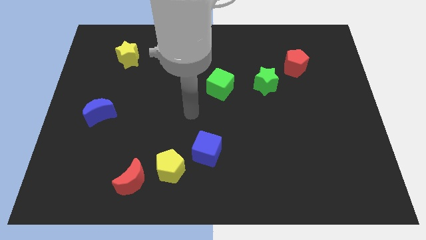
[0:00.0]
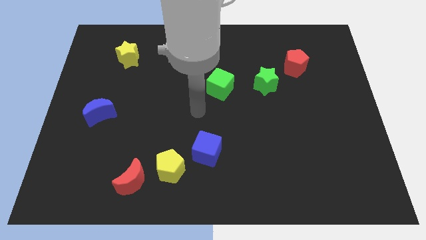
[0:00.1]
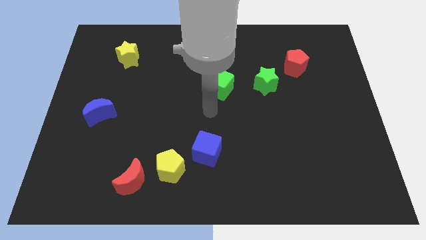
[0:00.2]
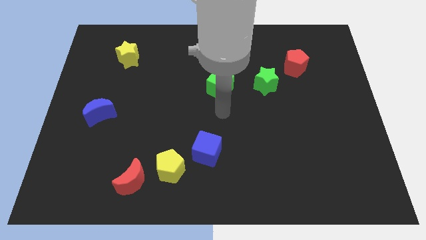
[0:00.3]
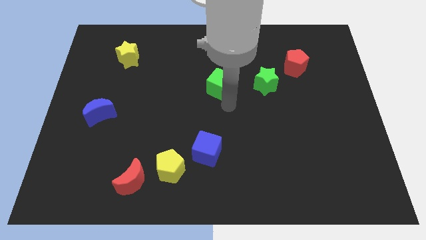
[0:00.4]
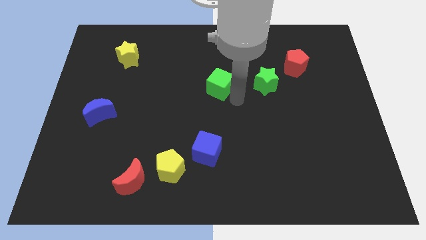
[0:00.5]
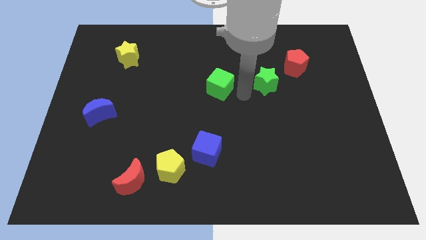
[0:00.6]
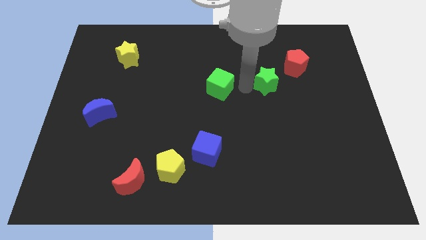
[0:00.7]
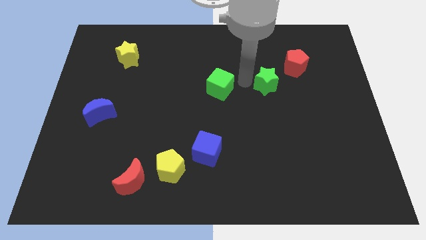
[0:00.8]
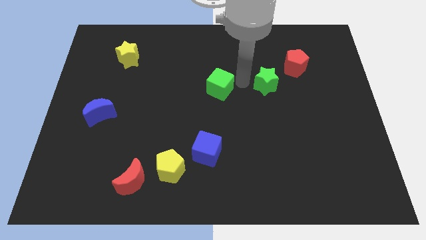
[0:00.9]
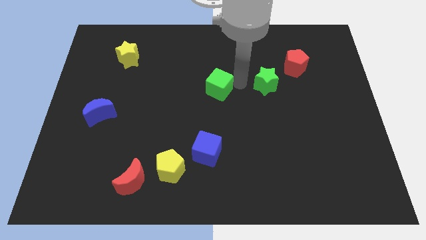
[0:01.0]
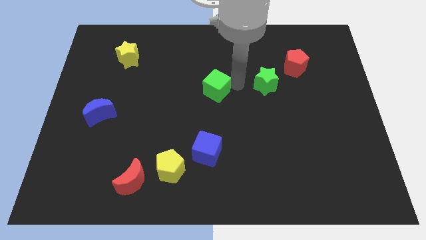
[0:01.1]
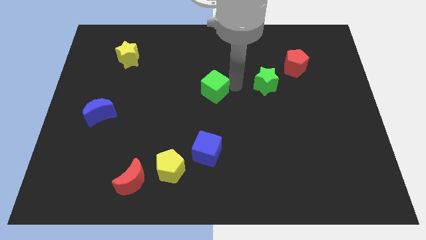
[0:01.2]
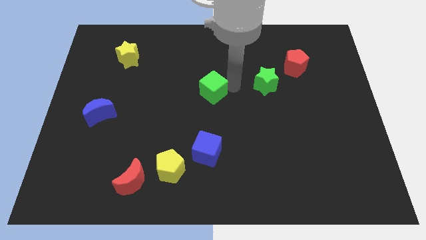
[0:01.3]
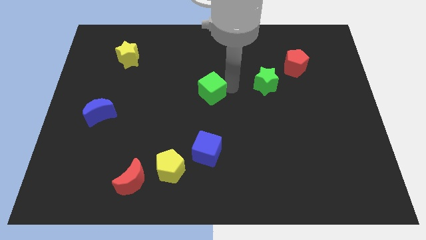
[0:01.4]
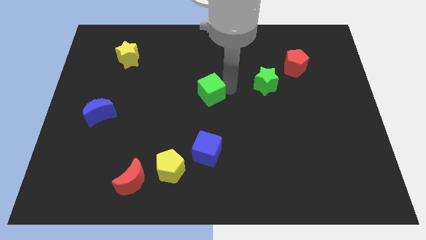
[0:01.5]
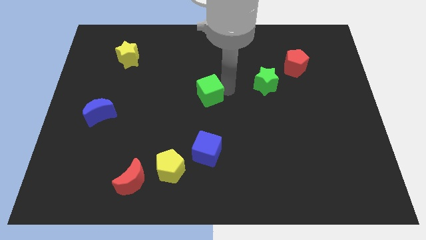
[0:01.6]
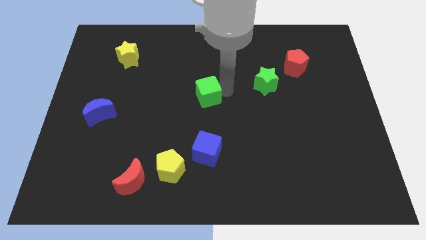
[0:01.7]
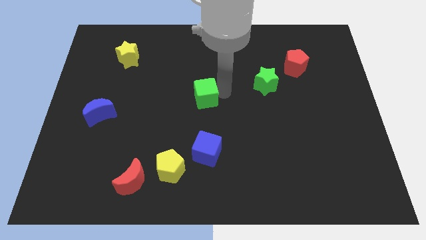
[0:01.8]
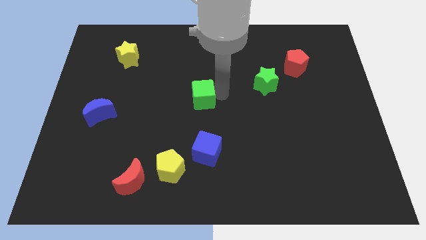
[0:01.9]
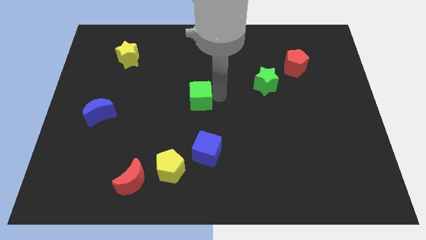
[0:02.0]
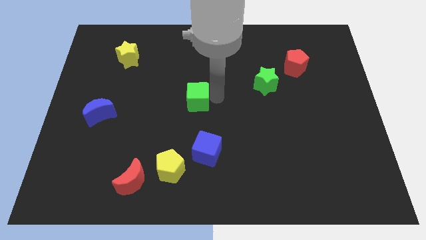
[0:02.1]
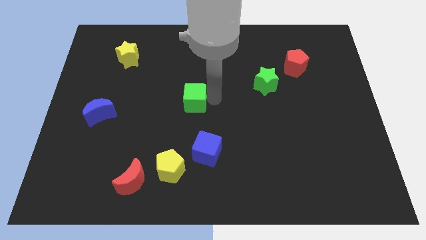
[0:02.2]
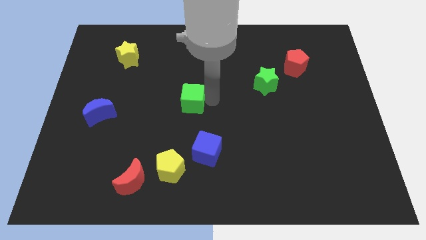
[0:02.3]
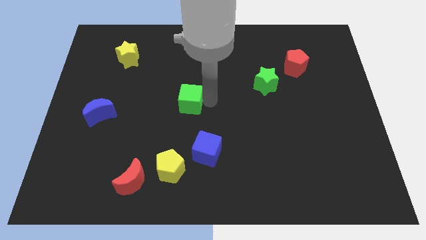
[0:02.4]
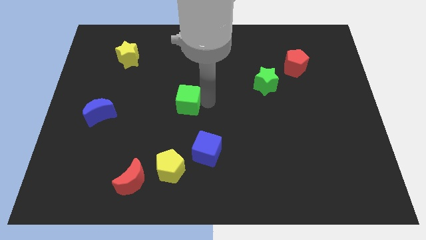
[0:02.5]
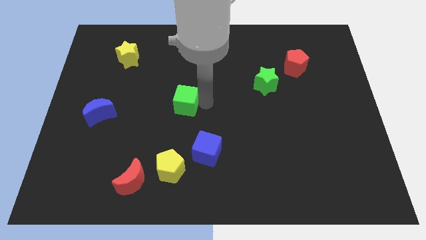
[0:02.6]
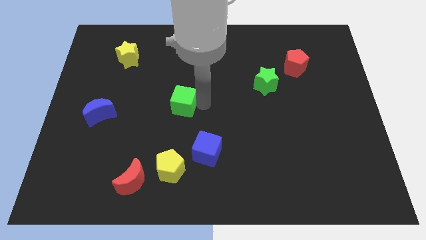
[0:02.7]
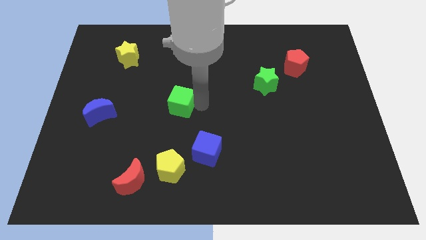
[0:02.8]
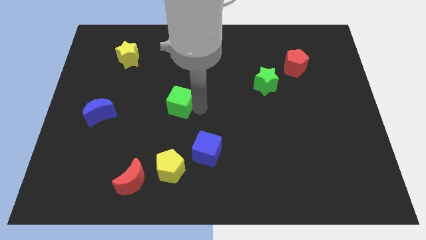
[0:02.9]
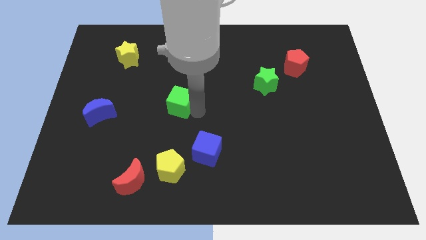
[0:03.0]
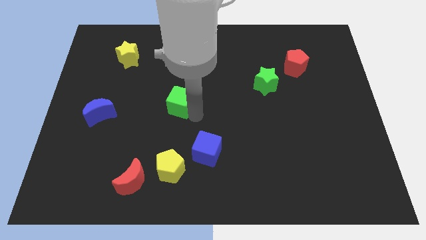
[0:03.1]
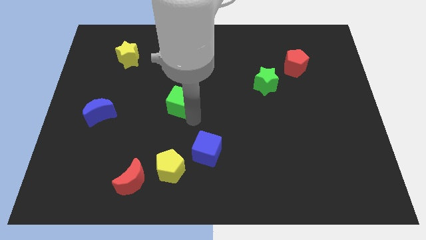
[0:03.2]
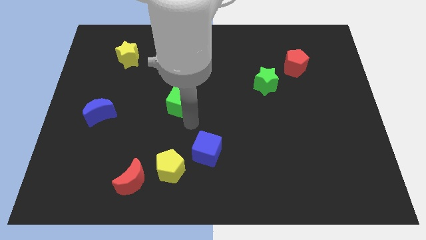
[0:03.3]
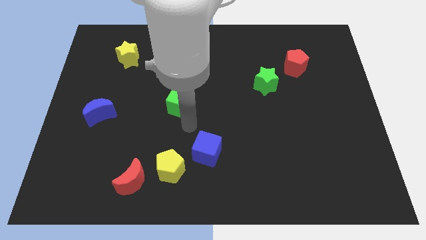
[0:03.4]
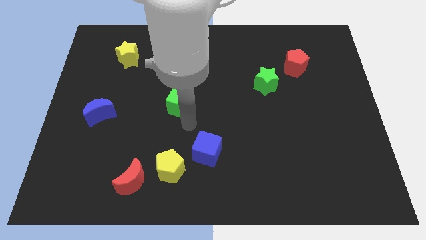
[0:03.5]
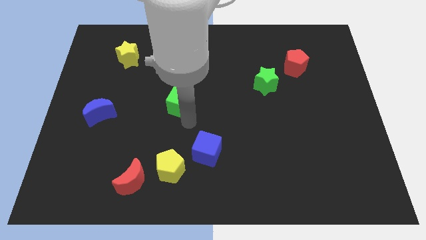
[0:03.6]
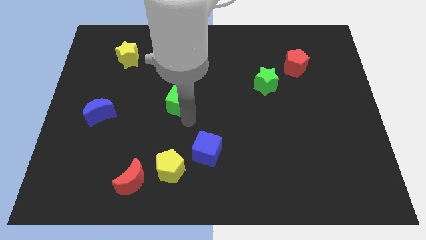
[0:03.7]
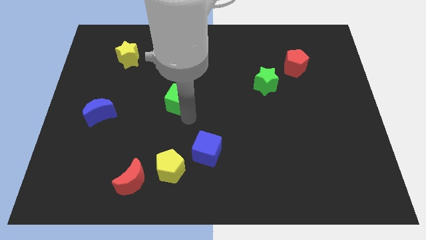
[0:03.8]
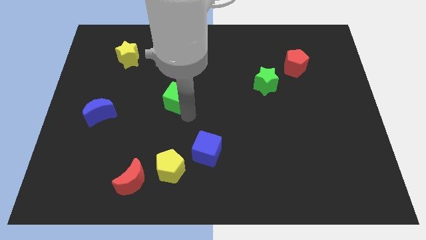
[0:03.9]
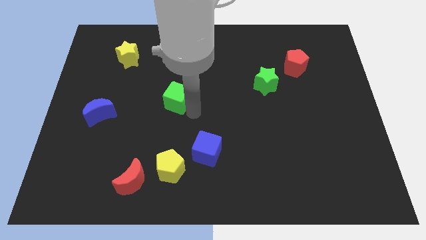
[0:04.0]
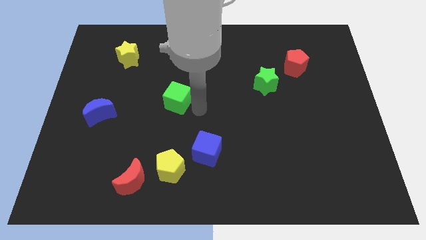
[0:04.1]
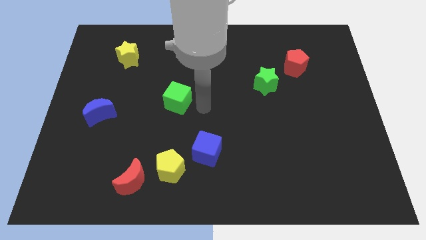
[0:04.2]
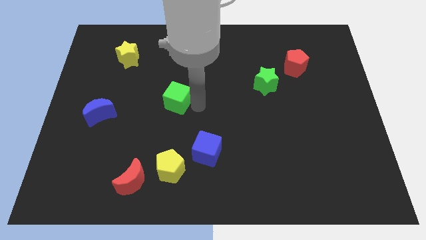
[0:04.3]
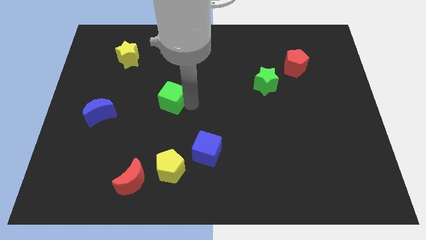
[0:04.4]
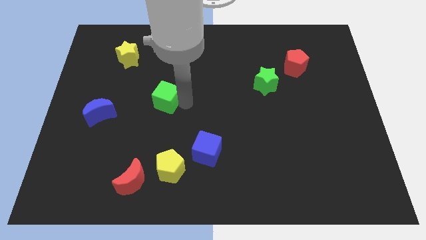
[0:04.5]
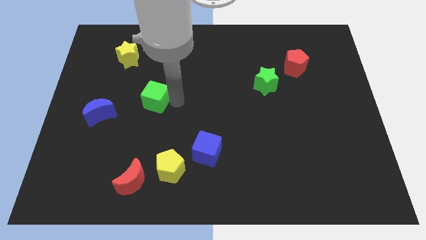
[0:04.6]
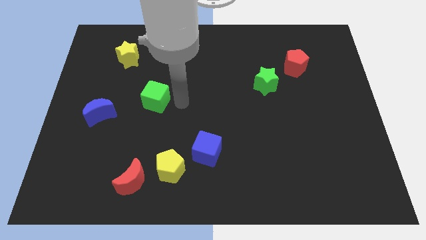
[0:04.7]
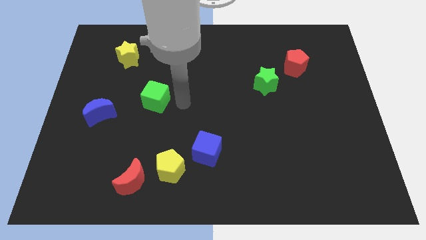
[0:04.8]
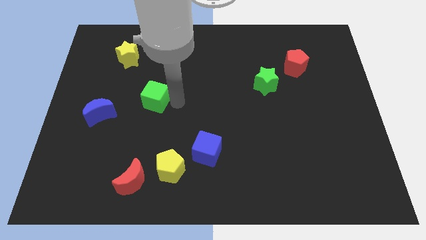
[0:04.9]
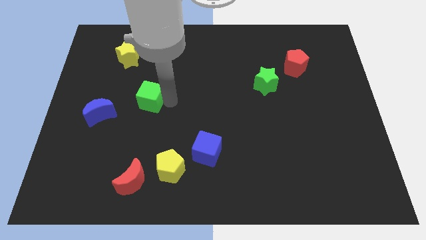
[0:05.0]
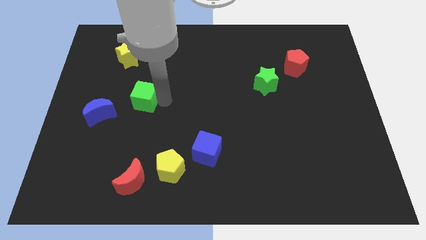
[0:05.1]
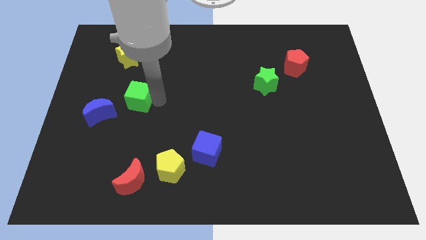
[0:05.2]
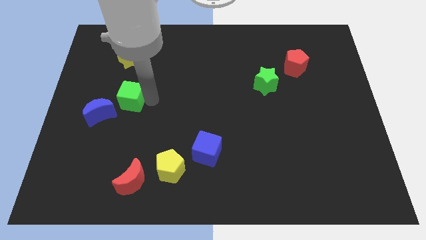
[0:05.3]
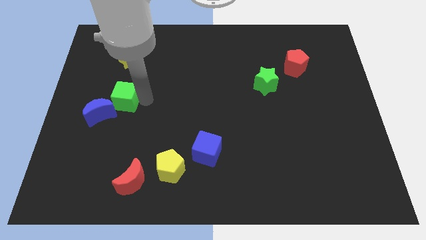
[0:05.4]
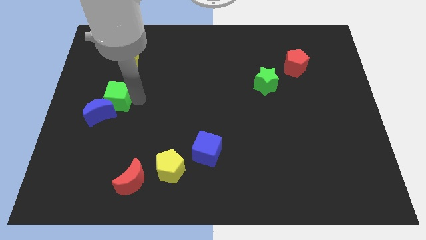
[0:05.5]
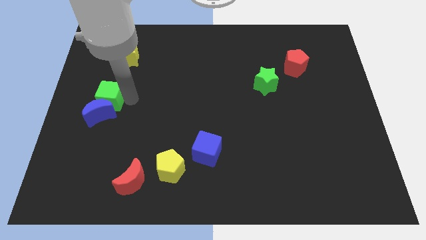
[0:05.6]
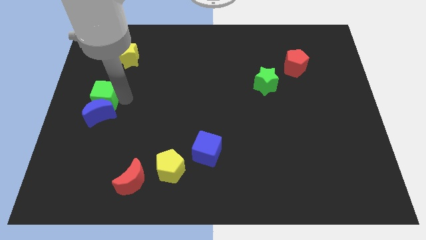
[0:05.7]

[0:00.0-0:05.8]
slide the green cube to the left side
